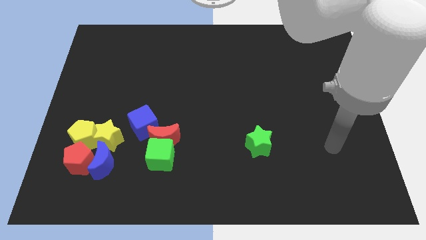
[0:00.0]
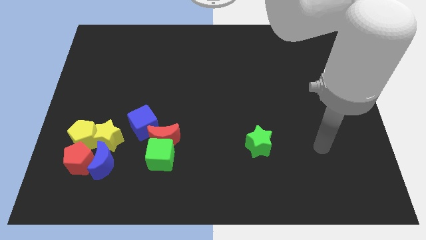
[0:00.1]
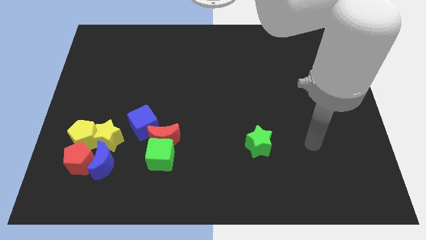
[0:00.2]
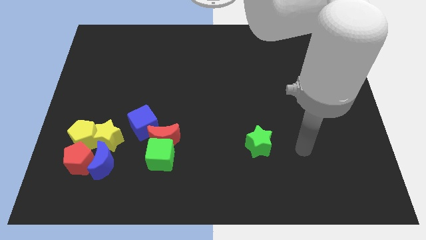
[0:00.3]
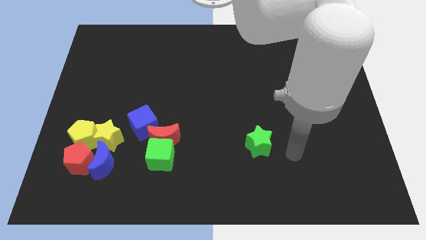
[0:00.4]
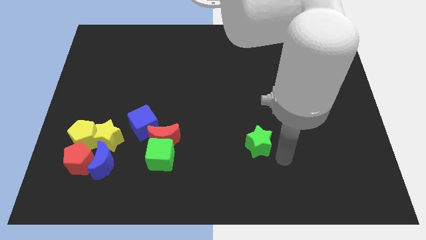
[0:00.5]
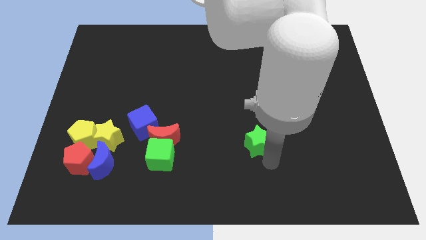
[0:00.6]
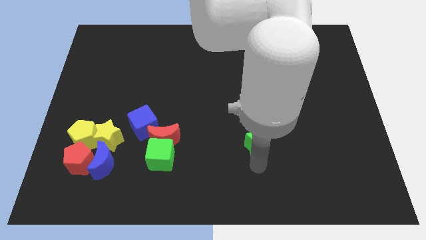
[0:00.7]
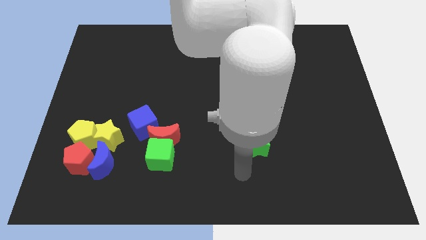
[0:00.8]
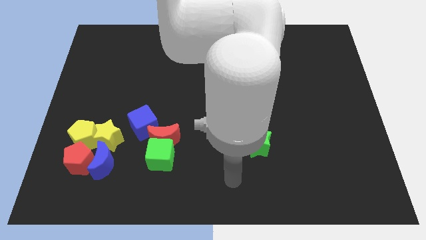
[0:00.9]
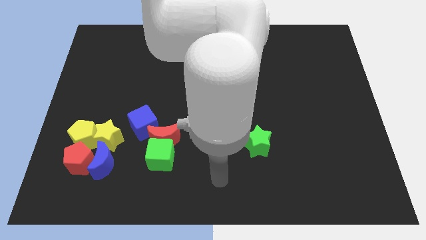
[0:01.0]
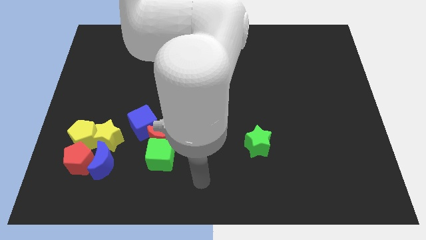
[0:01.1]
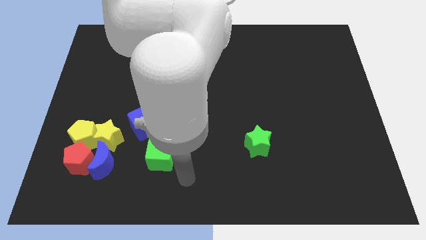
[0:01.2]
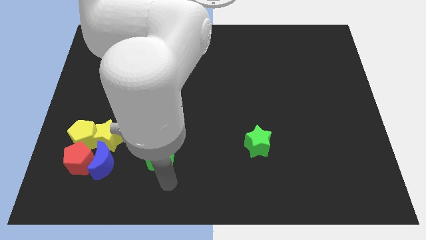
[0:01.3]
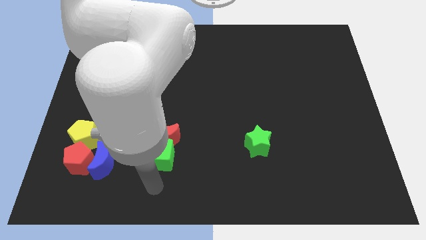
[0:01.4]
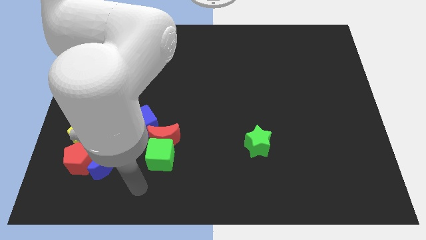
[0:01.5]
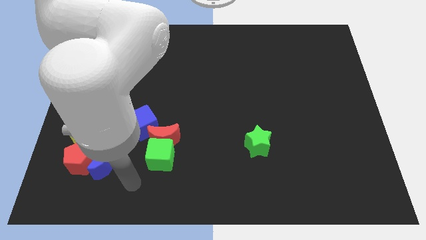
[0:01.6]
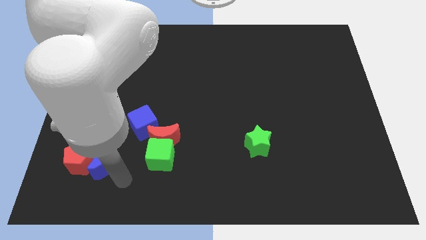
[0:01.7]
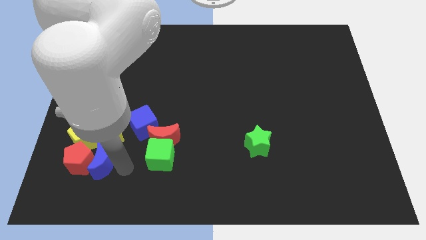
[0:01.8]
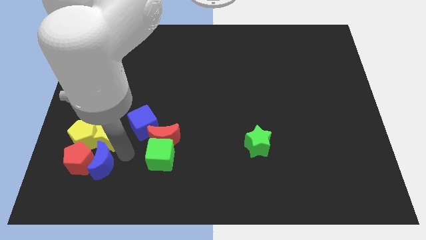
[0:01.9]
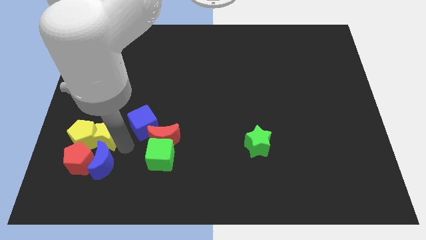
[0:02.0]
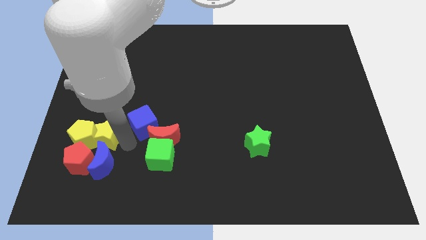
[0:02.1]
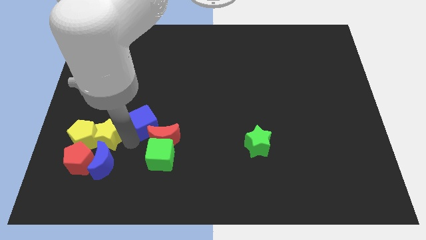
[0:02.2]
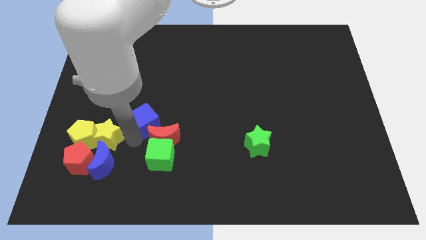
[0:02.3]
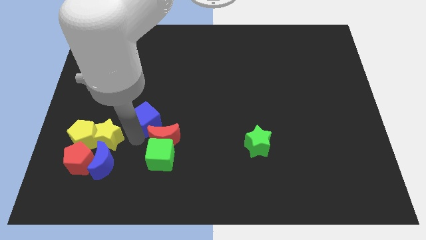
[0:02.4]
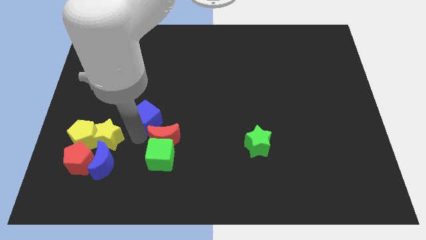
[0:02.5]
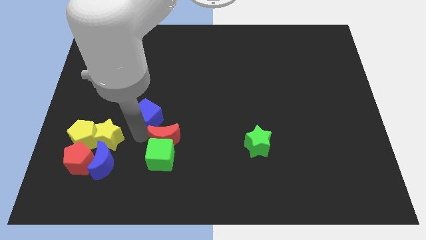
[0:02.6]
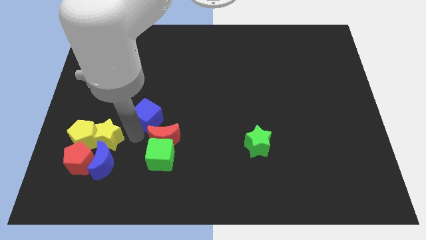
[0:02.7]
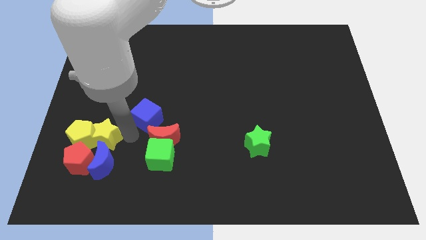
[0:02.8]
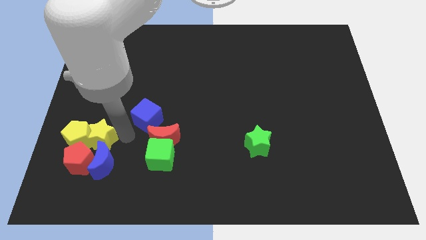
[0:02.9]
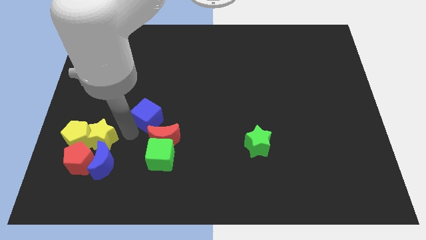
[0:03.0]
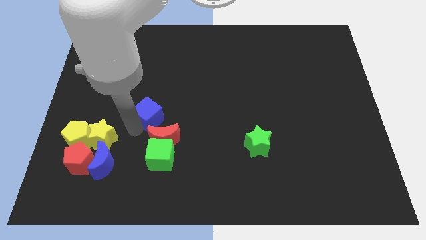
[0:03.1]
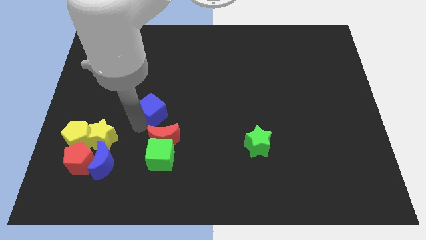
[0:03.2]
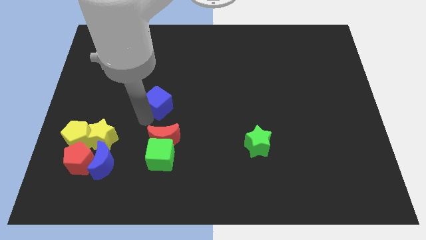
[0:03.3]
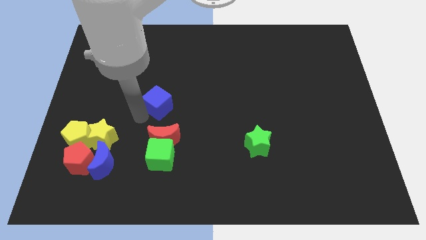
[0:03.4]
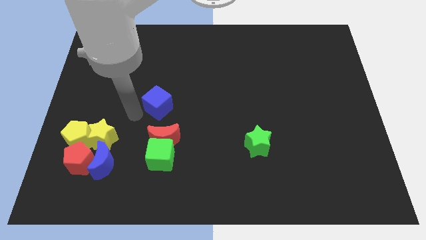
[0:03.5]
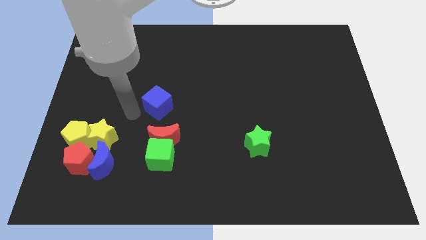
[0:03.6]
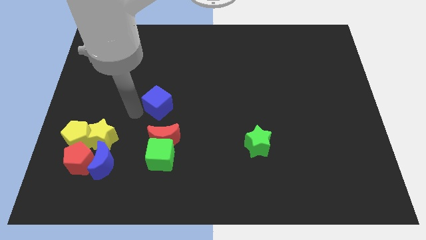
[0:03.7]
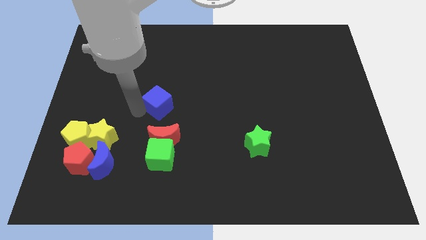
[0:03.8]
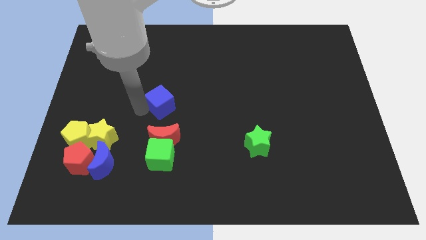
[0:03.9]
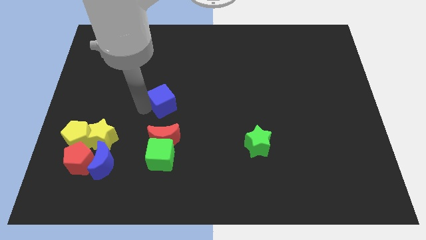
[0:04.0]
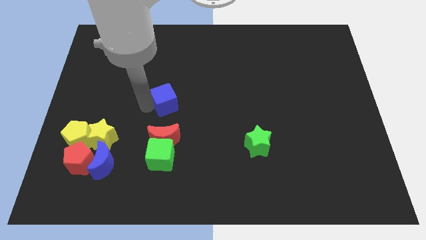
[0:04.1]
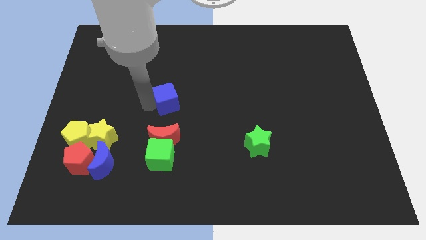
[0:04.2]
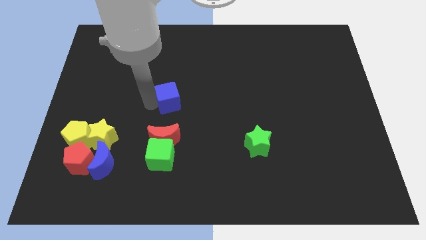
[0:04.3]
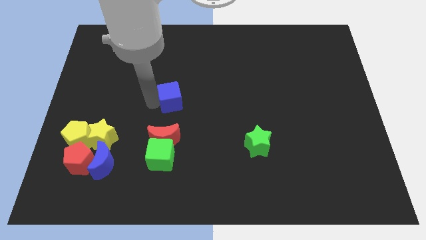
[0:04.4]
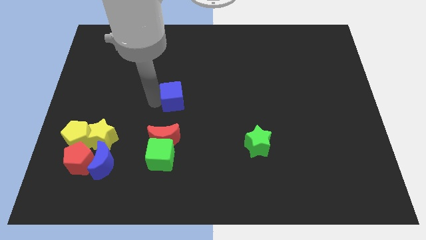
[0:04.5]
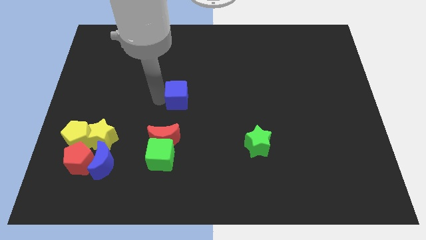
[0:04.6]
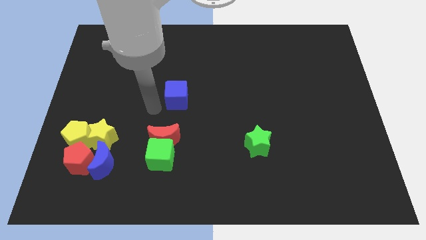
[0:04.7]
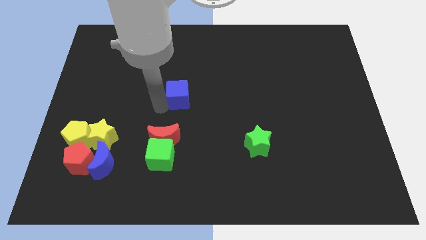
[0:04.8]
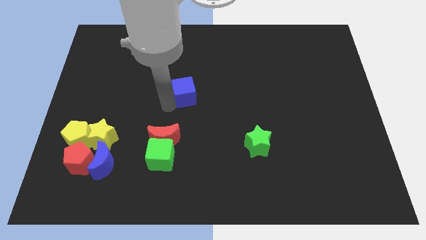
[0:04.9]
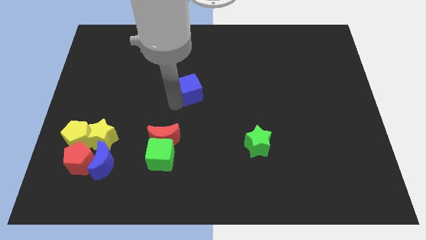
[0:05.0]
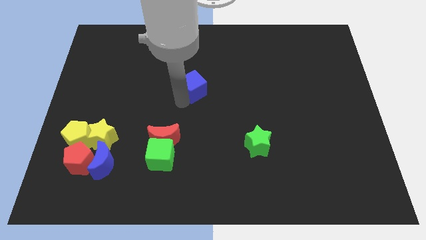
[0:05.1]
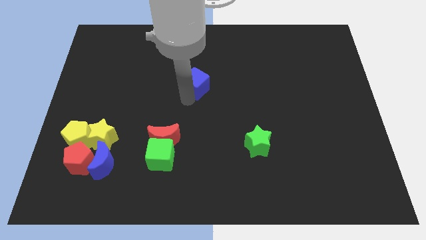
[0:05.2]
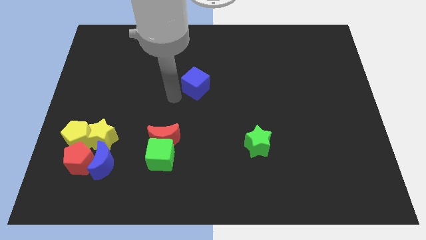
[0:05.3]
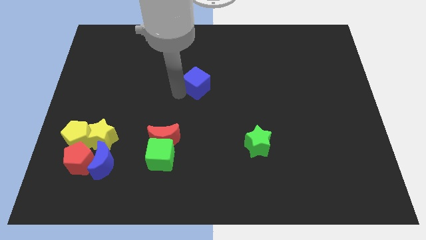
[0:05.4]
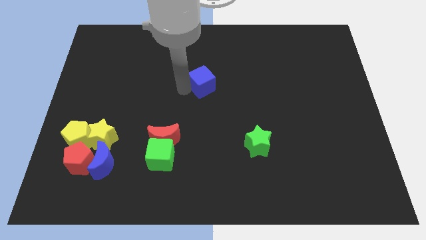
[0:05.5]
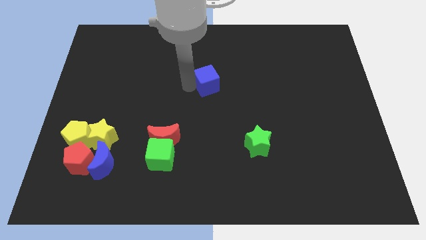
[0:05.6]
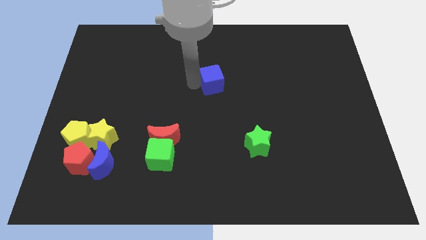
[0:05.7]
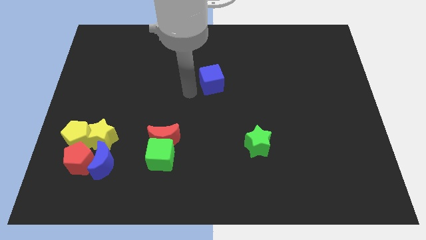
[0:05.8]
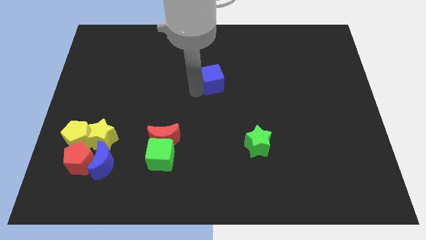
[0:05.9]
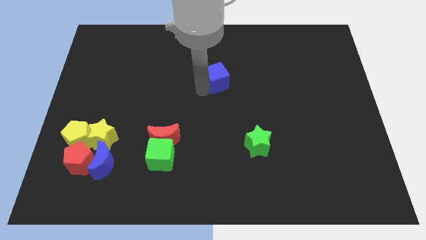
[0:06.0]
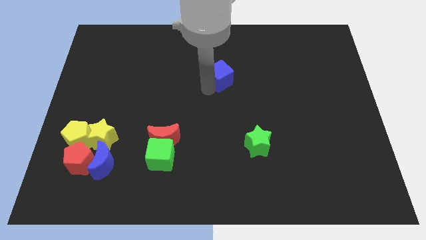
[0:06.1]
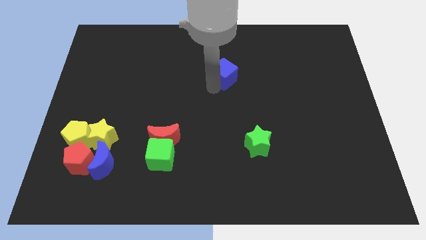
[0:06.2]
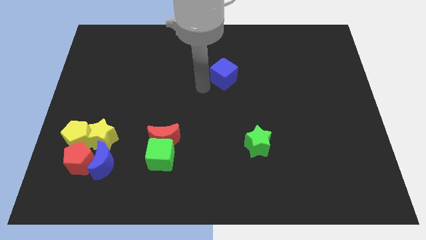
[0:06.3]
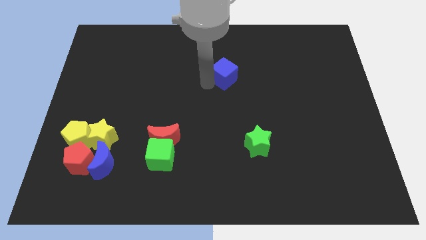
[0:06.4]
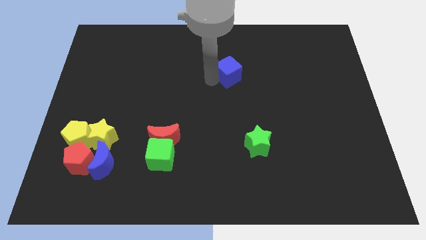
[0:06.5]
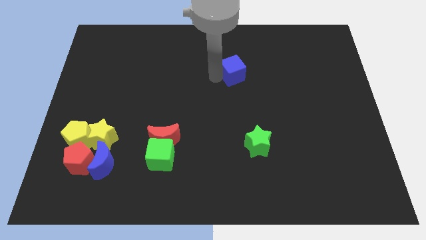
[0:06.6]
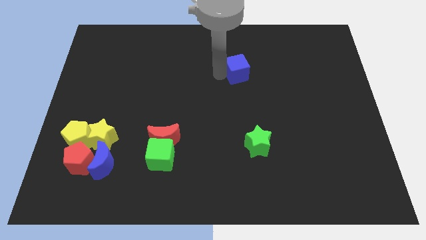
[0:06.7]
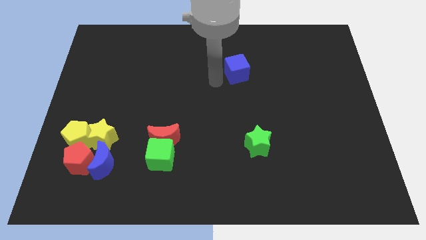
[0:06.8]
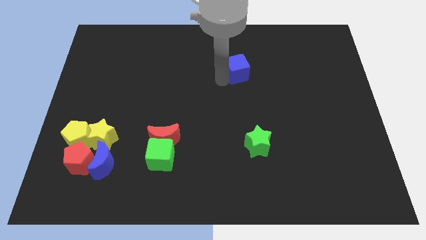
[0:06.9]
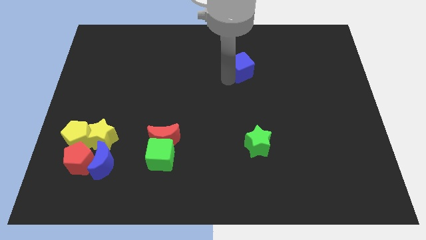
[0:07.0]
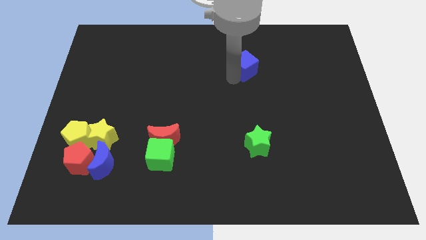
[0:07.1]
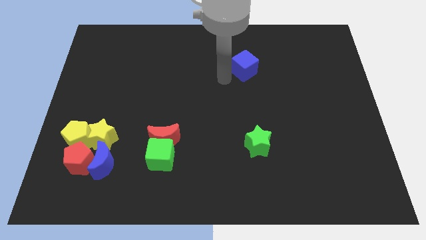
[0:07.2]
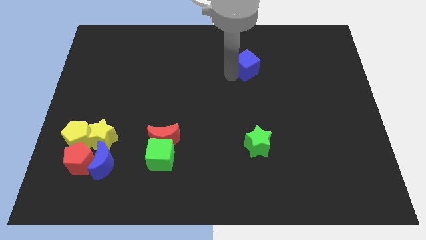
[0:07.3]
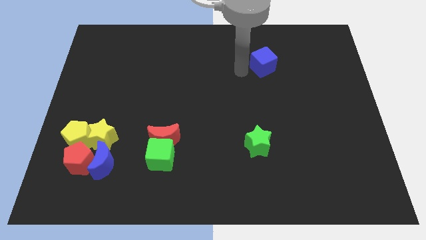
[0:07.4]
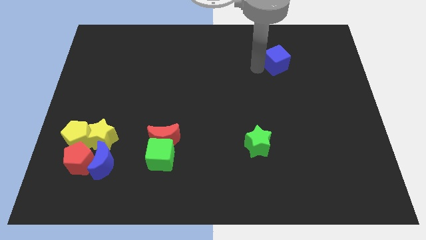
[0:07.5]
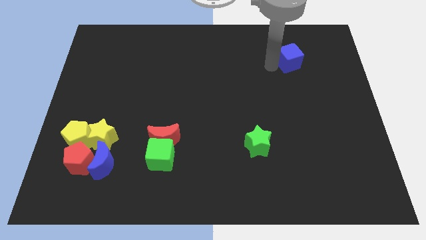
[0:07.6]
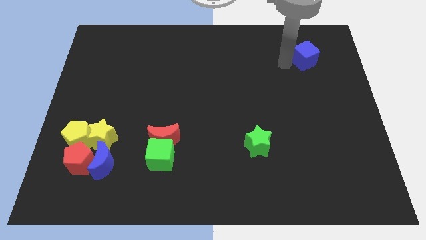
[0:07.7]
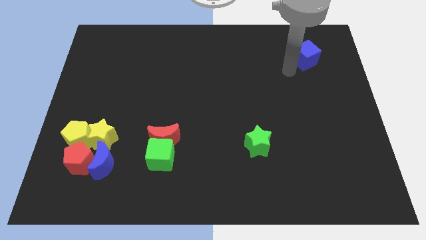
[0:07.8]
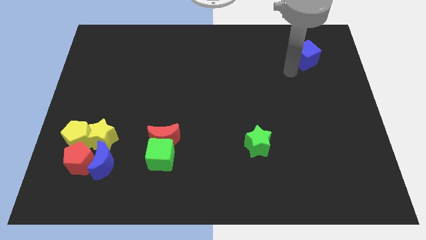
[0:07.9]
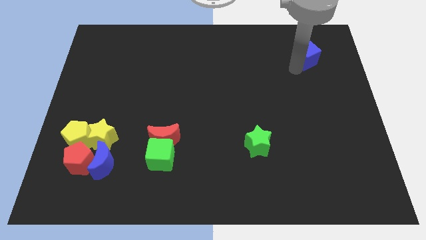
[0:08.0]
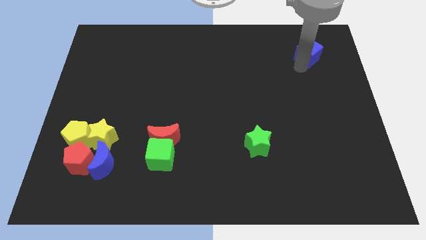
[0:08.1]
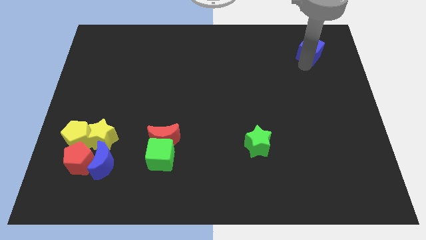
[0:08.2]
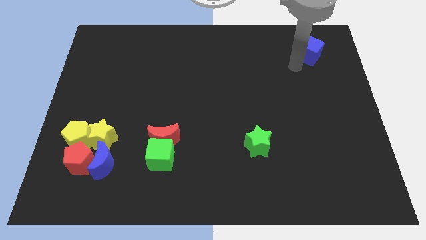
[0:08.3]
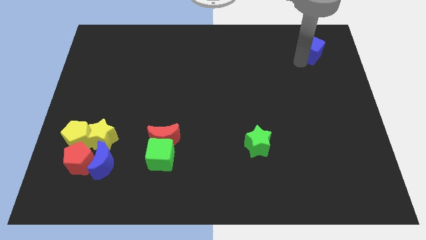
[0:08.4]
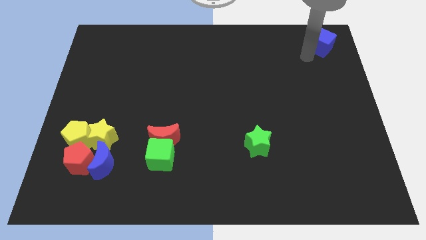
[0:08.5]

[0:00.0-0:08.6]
slide the blue cube to the top right corner
